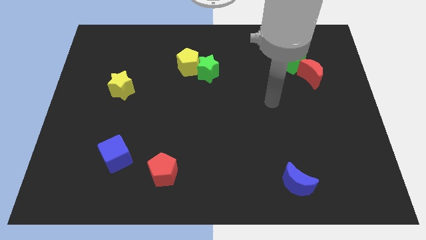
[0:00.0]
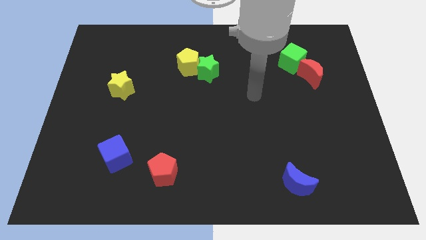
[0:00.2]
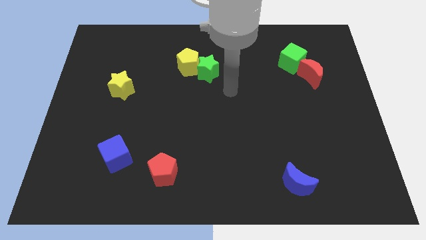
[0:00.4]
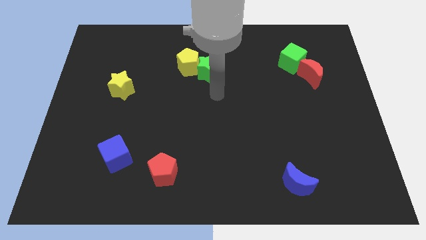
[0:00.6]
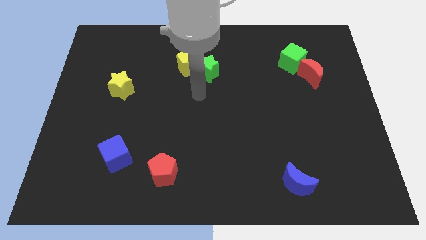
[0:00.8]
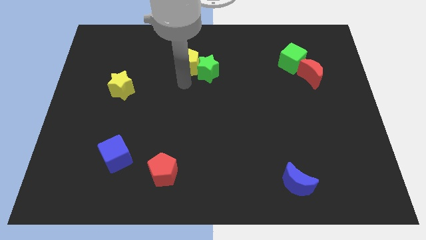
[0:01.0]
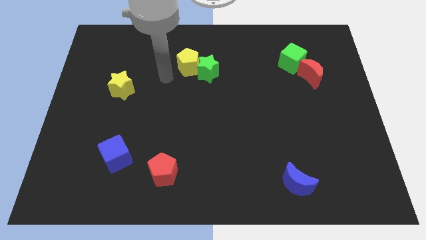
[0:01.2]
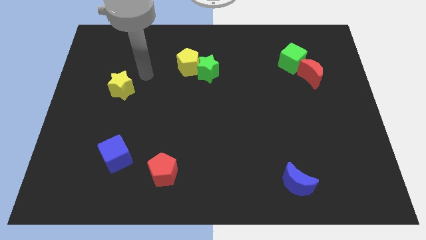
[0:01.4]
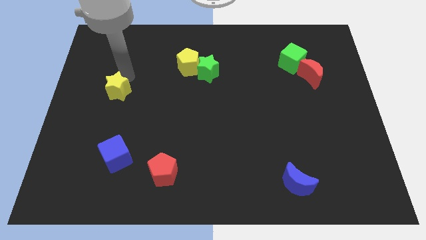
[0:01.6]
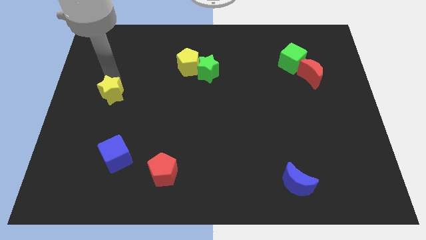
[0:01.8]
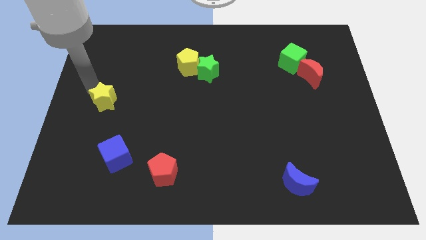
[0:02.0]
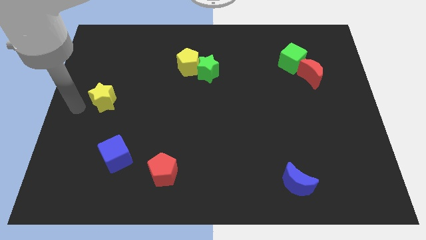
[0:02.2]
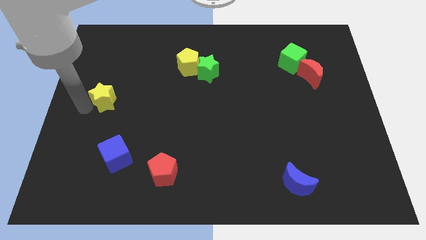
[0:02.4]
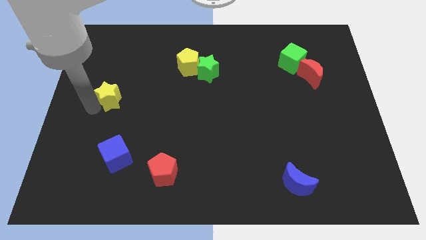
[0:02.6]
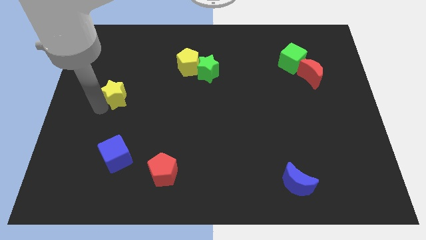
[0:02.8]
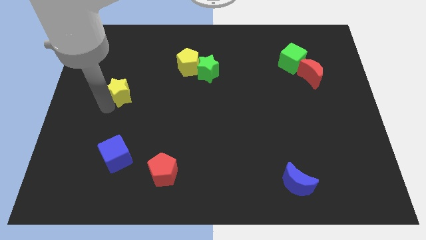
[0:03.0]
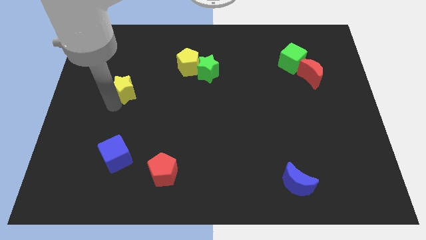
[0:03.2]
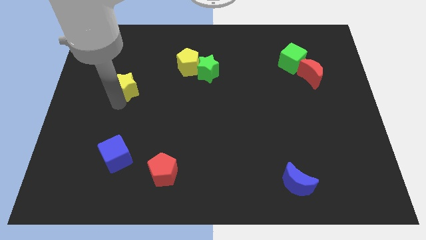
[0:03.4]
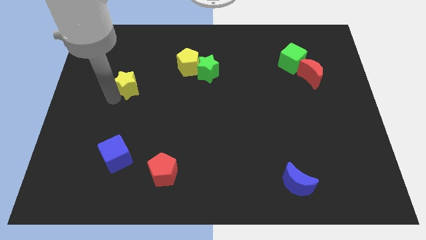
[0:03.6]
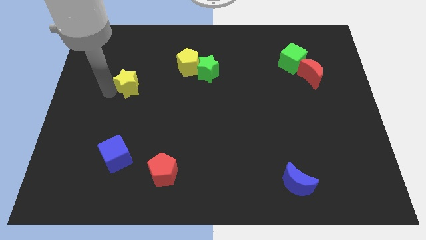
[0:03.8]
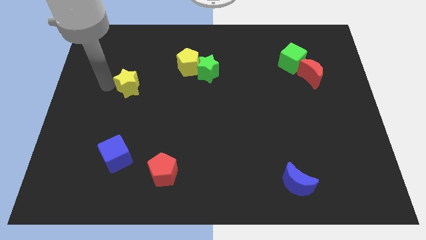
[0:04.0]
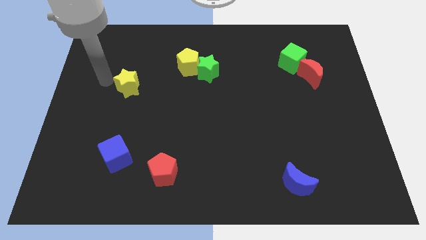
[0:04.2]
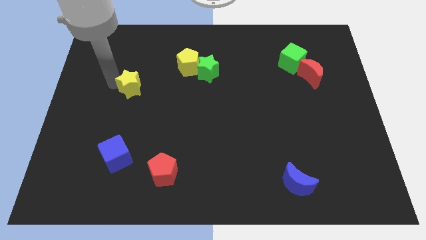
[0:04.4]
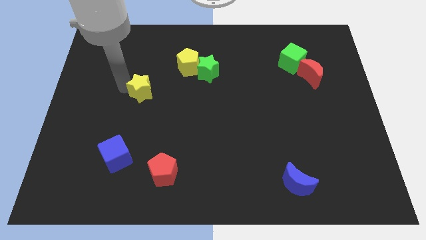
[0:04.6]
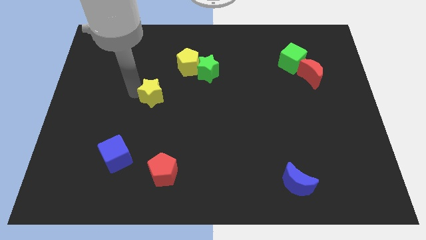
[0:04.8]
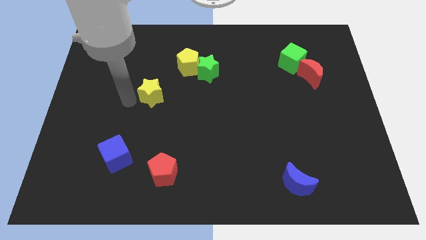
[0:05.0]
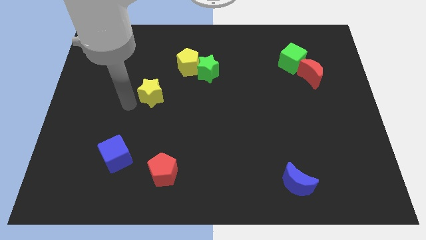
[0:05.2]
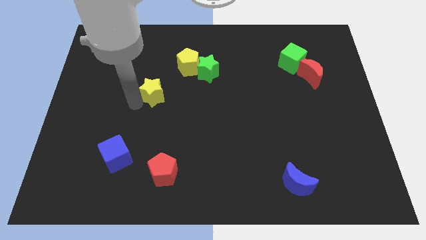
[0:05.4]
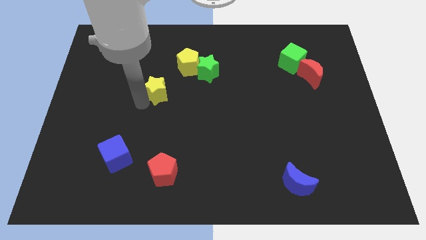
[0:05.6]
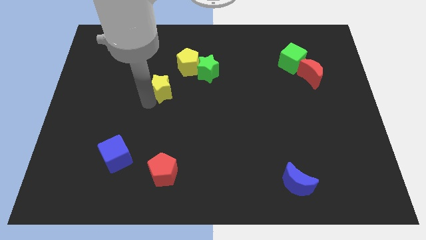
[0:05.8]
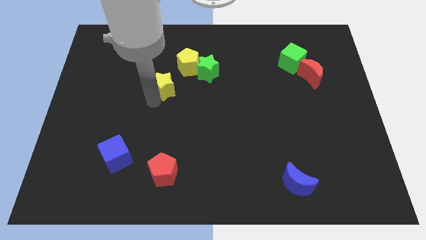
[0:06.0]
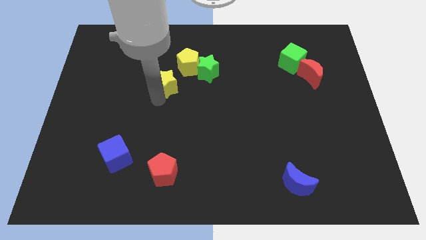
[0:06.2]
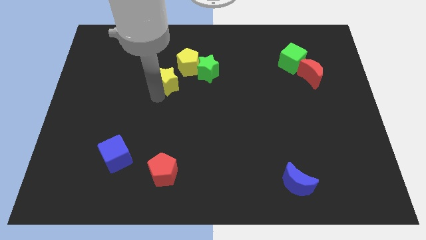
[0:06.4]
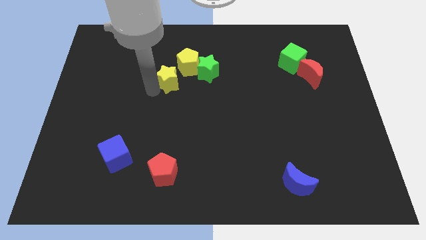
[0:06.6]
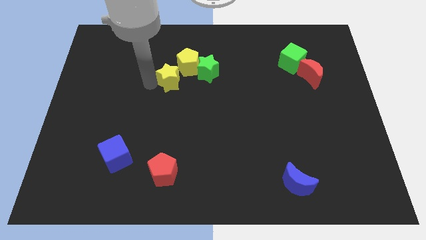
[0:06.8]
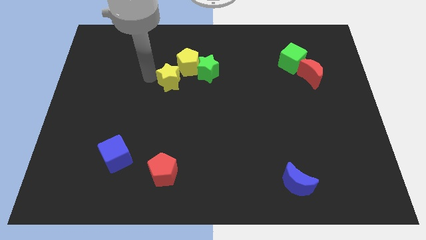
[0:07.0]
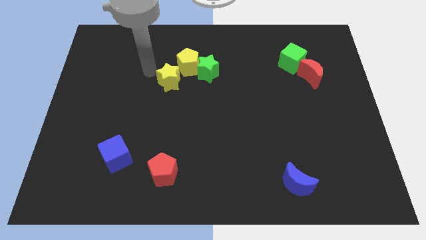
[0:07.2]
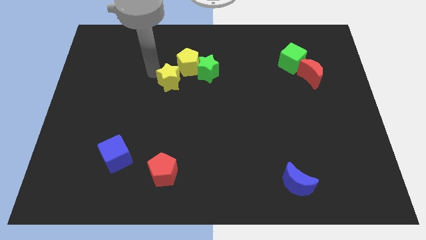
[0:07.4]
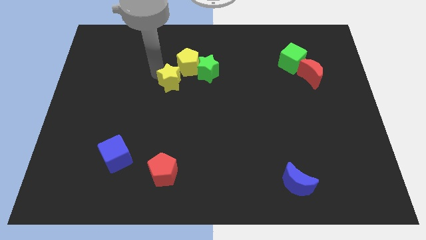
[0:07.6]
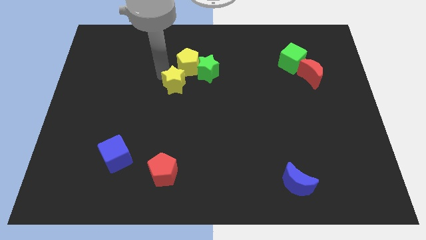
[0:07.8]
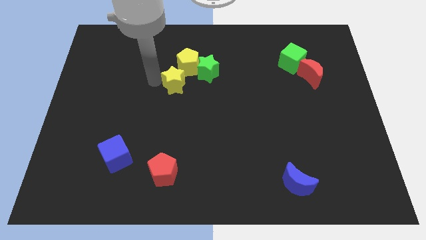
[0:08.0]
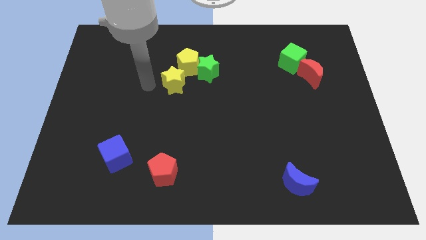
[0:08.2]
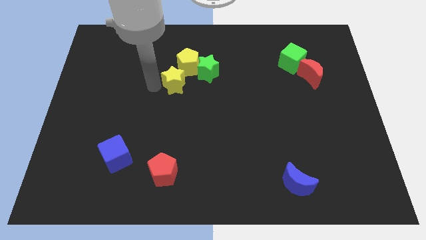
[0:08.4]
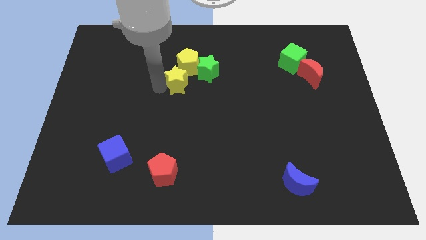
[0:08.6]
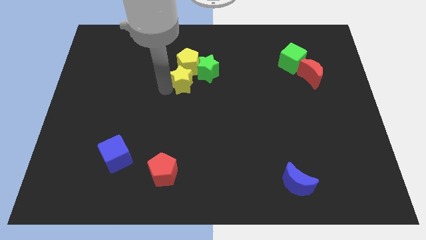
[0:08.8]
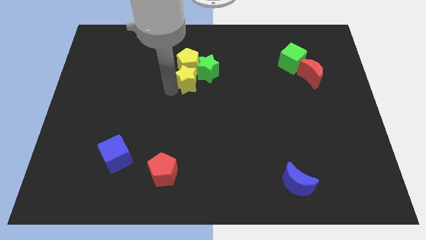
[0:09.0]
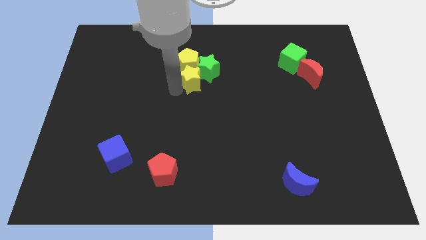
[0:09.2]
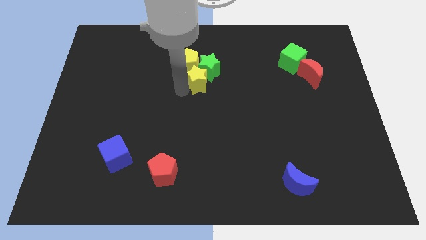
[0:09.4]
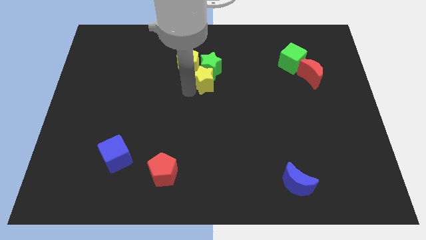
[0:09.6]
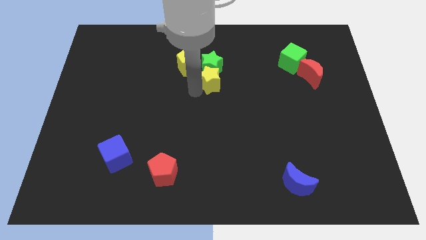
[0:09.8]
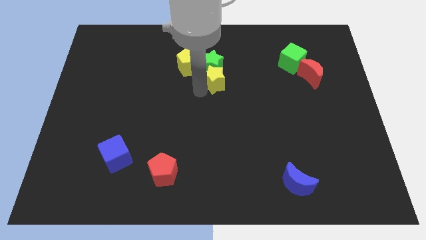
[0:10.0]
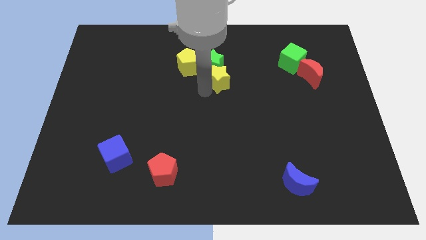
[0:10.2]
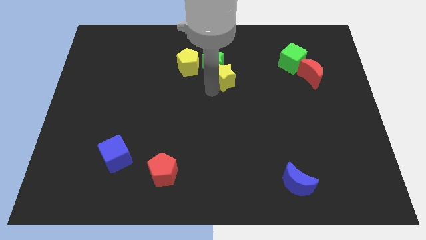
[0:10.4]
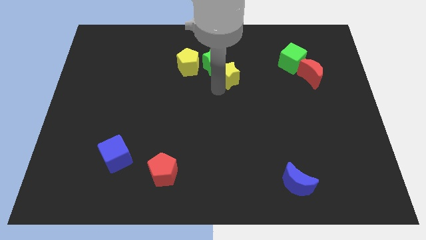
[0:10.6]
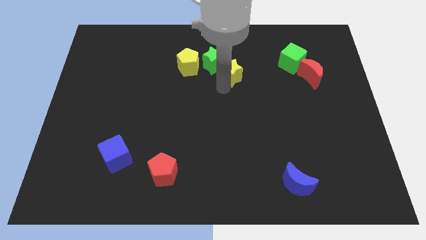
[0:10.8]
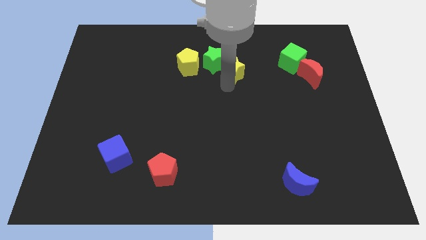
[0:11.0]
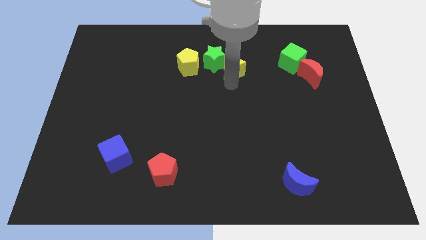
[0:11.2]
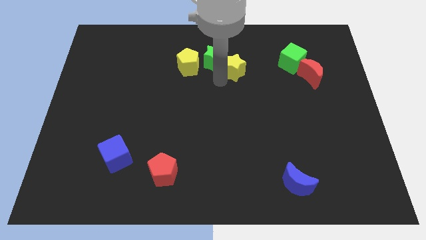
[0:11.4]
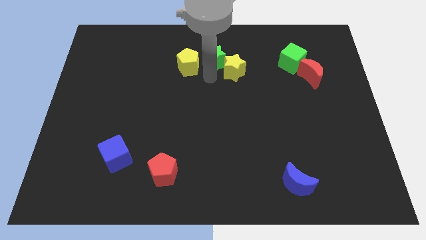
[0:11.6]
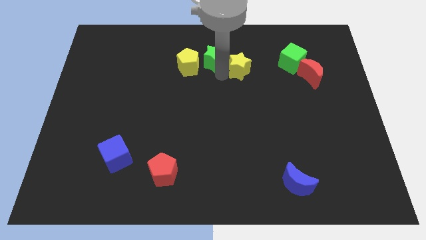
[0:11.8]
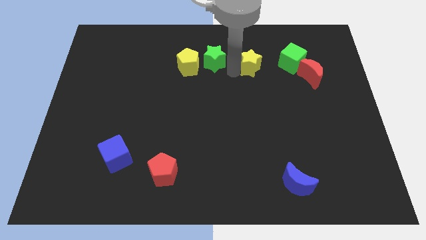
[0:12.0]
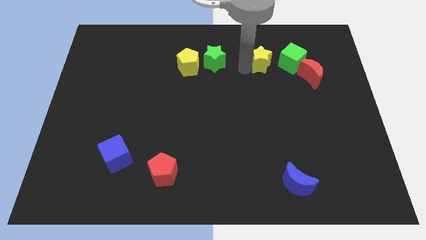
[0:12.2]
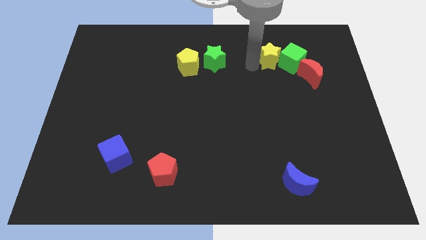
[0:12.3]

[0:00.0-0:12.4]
move the yellow star to the green cube

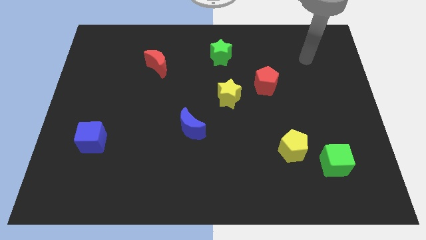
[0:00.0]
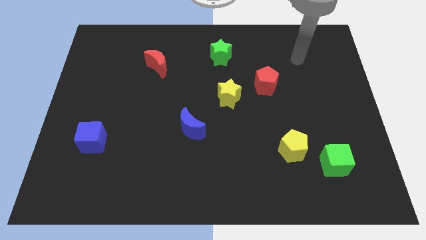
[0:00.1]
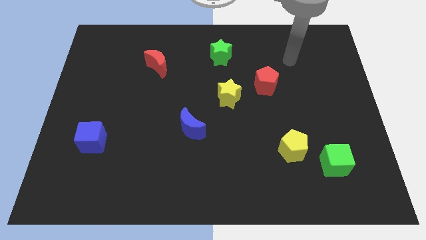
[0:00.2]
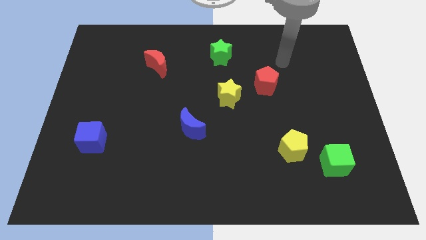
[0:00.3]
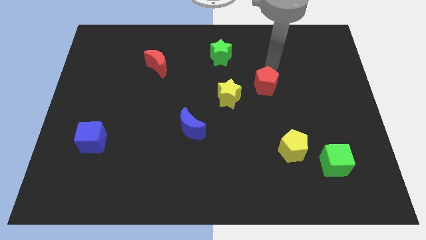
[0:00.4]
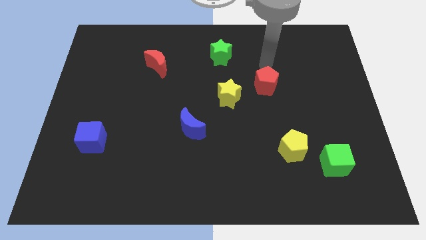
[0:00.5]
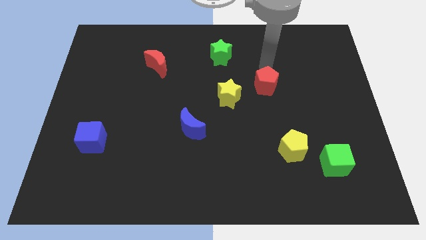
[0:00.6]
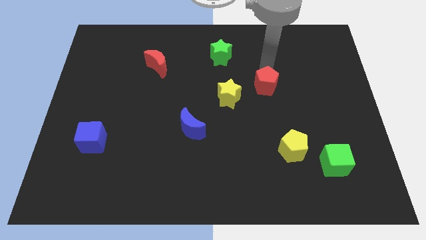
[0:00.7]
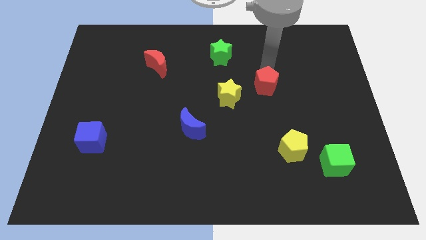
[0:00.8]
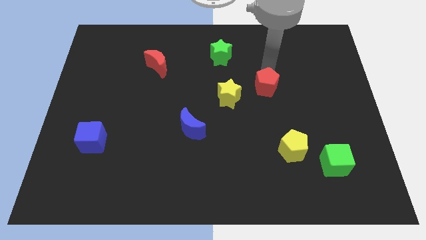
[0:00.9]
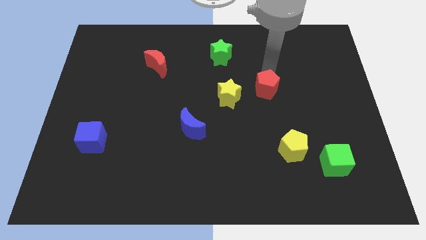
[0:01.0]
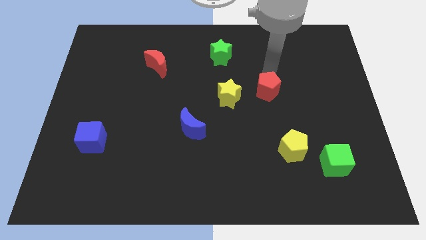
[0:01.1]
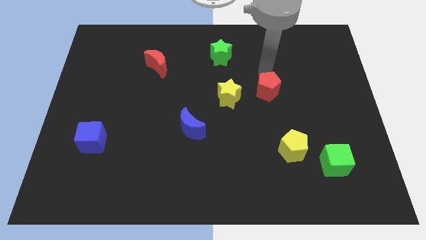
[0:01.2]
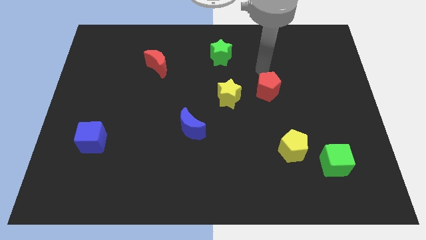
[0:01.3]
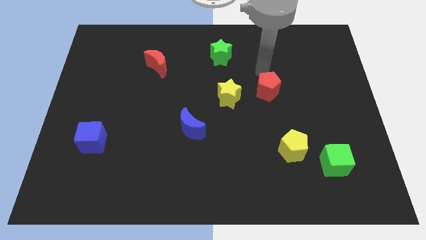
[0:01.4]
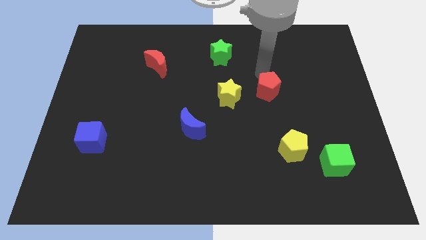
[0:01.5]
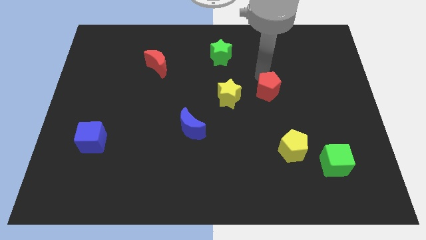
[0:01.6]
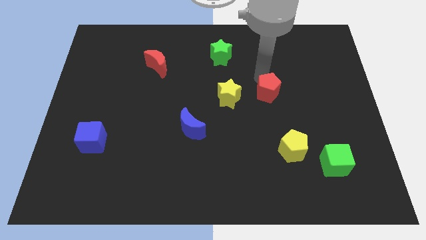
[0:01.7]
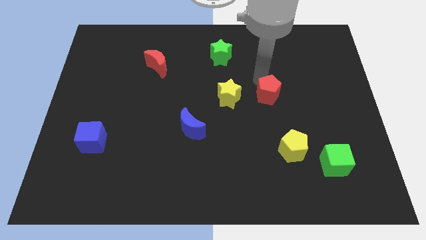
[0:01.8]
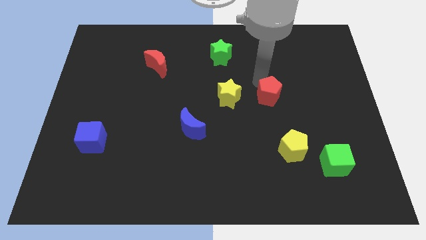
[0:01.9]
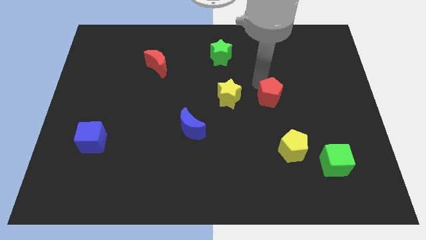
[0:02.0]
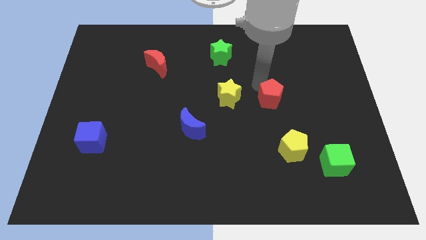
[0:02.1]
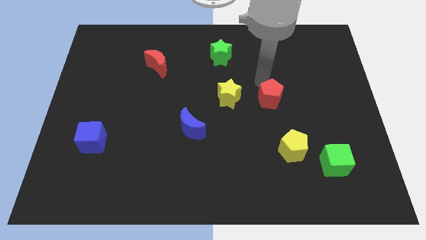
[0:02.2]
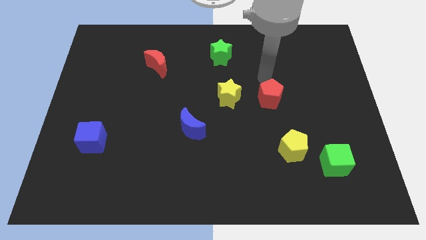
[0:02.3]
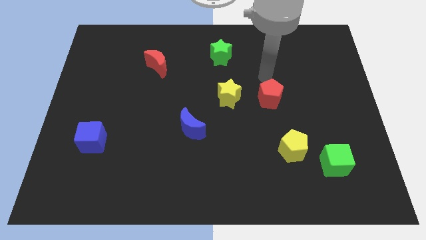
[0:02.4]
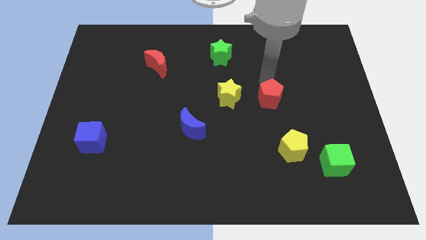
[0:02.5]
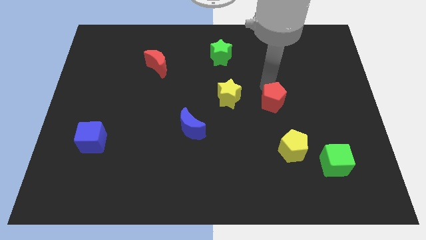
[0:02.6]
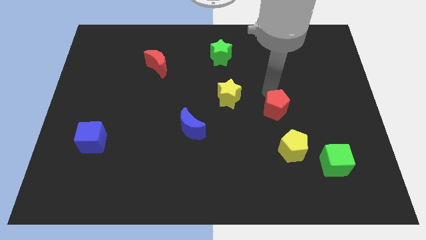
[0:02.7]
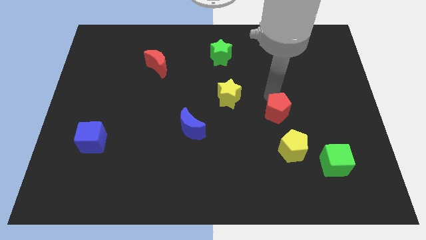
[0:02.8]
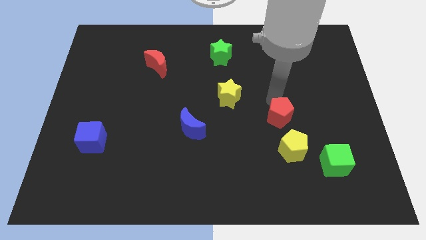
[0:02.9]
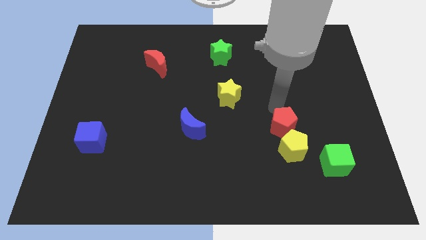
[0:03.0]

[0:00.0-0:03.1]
slide the red pentagon towards the yellow pentagon
